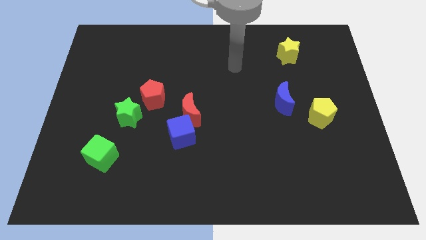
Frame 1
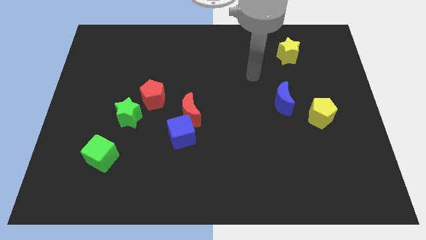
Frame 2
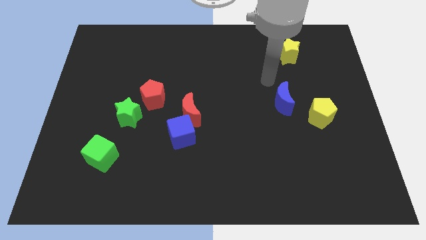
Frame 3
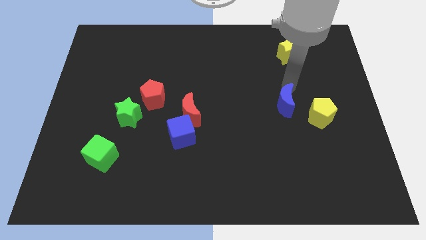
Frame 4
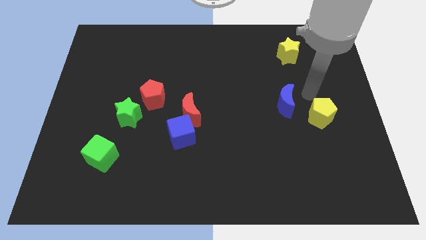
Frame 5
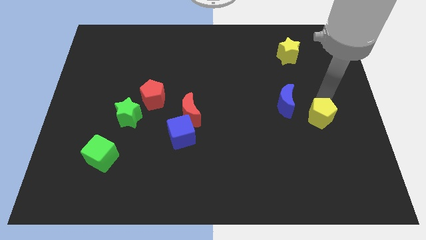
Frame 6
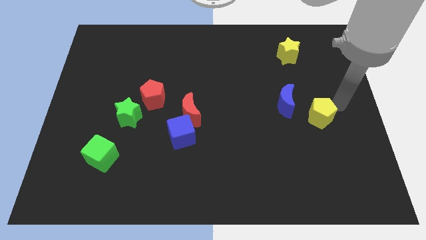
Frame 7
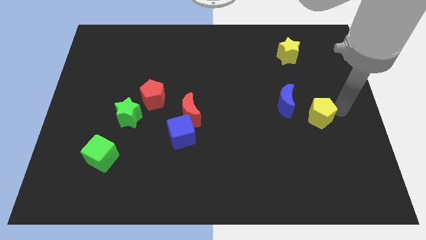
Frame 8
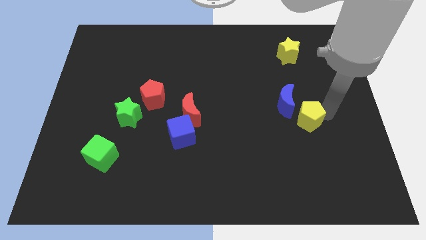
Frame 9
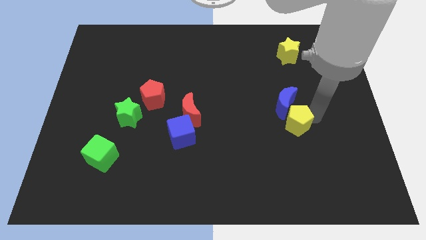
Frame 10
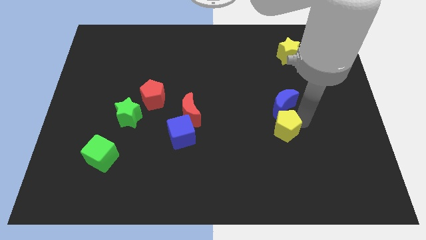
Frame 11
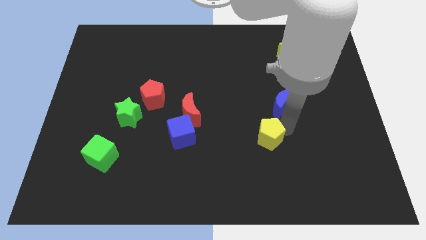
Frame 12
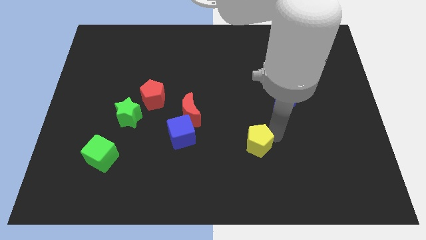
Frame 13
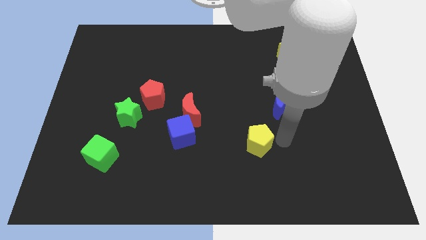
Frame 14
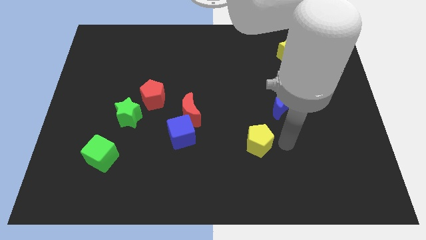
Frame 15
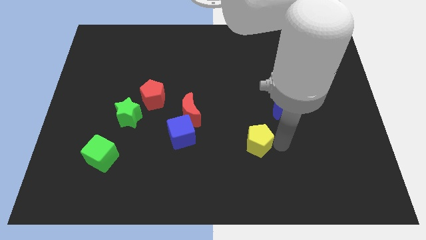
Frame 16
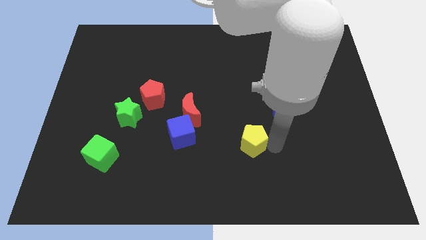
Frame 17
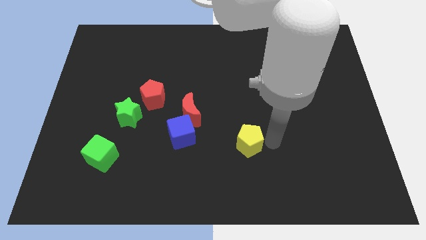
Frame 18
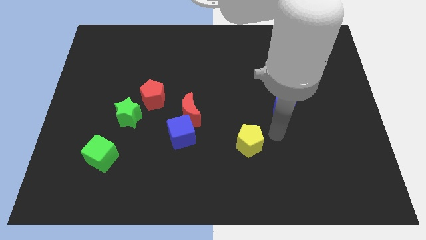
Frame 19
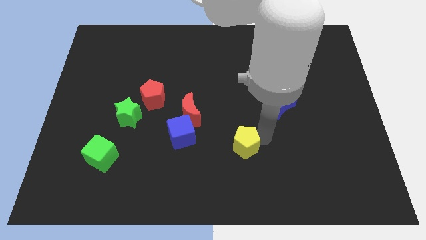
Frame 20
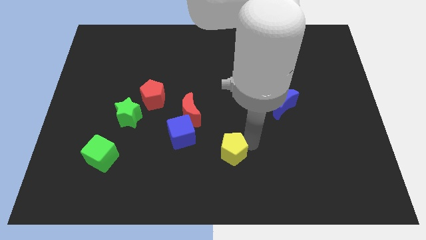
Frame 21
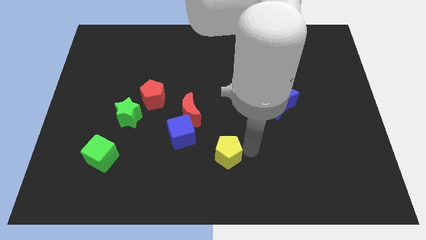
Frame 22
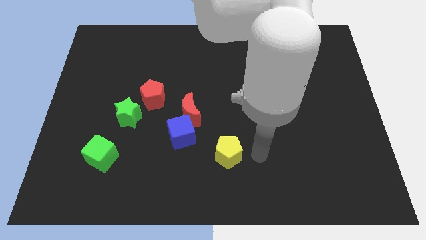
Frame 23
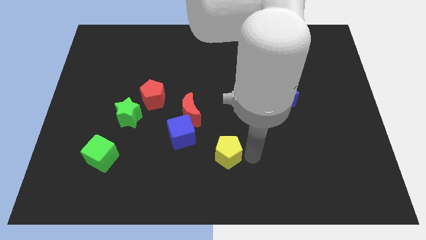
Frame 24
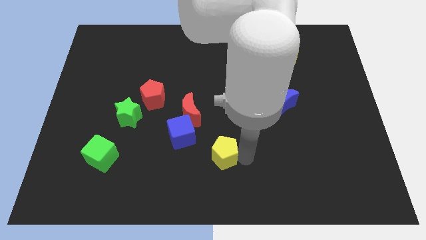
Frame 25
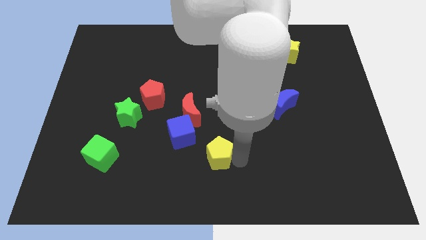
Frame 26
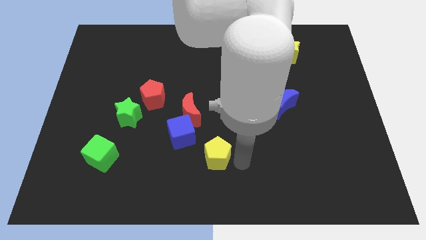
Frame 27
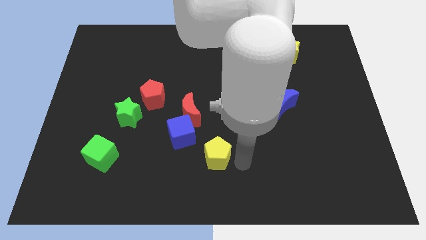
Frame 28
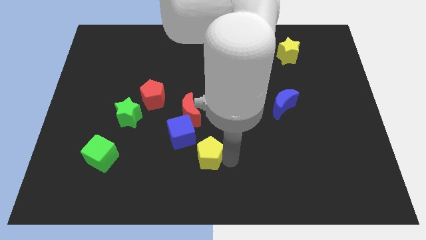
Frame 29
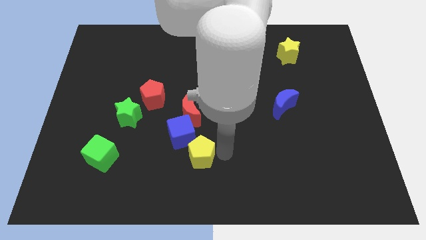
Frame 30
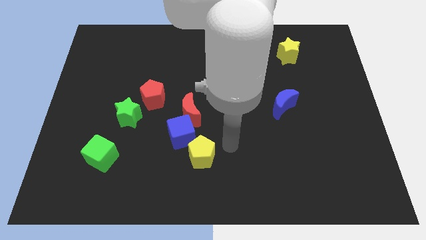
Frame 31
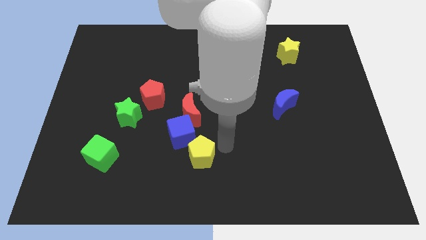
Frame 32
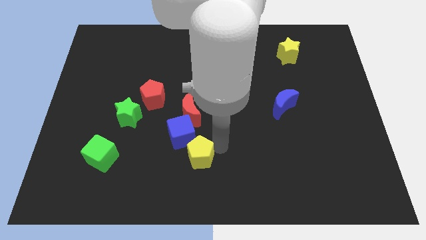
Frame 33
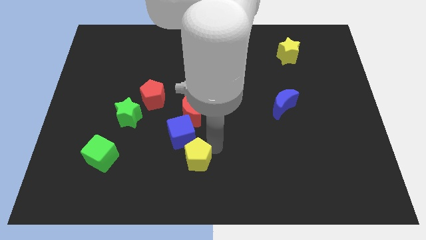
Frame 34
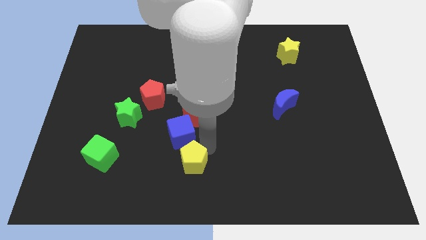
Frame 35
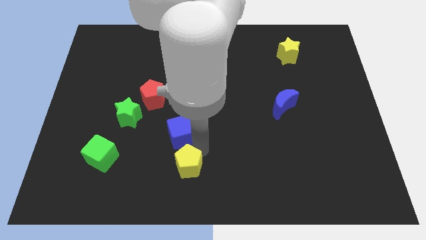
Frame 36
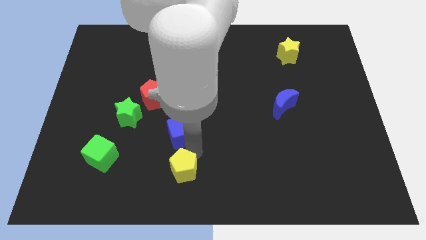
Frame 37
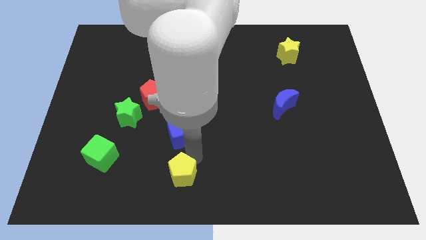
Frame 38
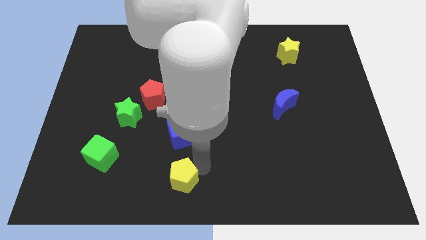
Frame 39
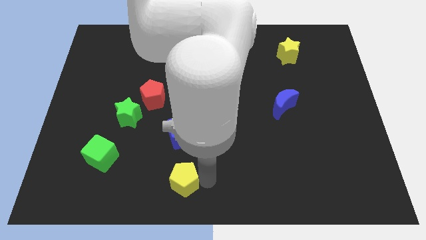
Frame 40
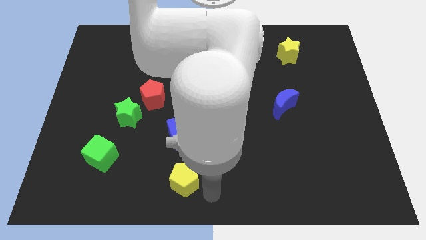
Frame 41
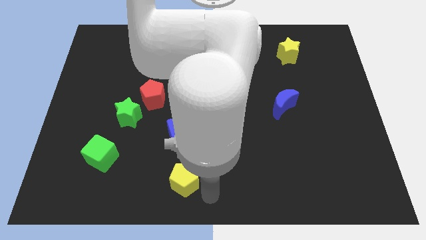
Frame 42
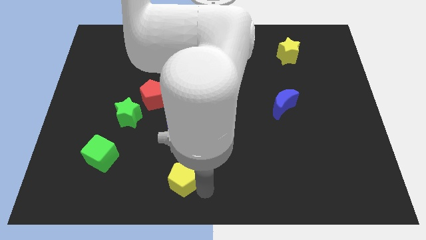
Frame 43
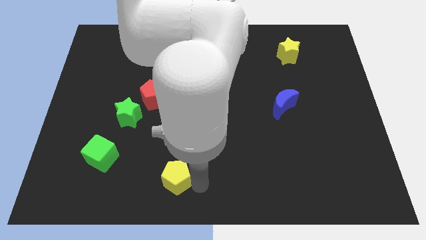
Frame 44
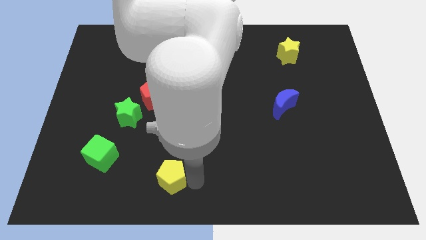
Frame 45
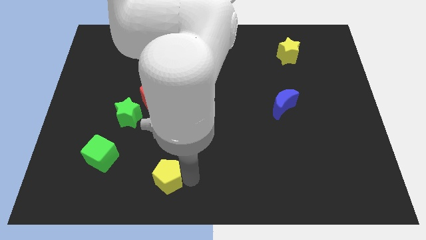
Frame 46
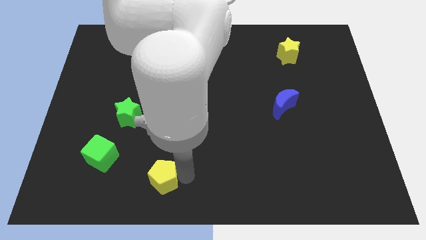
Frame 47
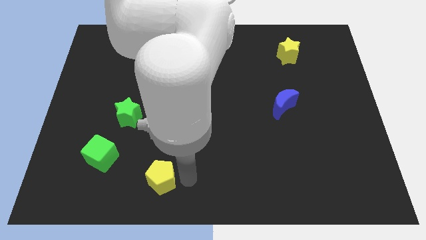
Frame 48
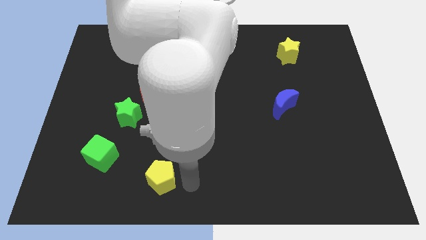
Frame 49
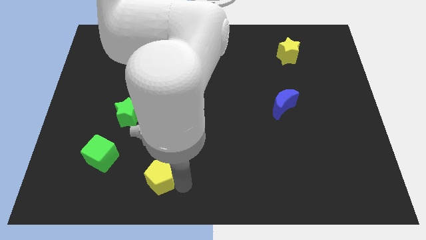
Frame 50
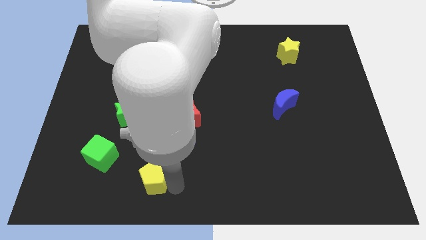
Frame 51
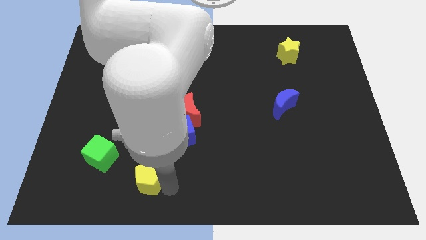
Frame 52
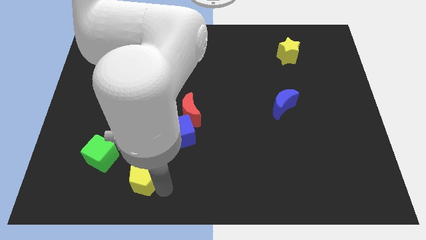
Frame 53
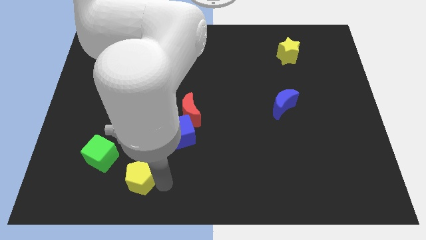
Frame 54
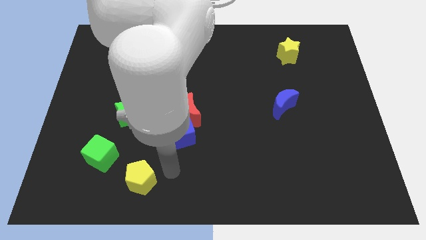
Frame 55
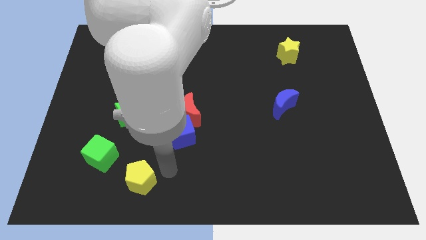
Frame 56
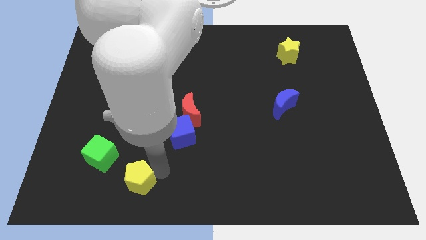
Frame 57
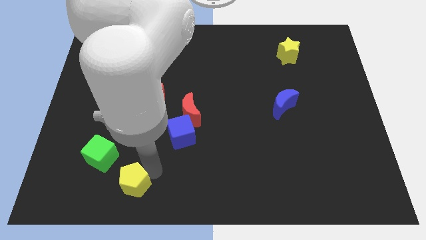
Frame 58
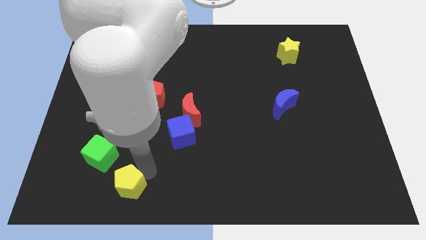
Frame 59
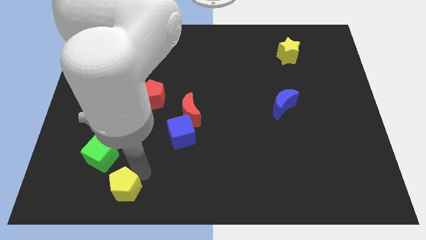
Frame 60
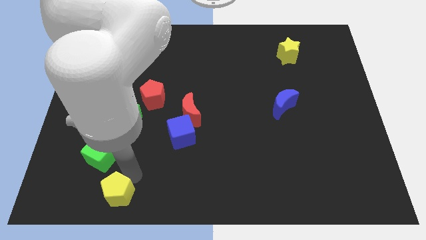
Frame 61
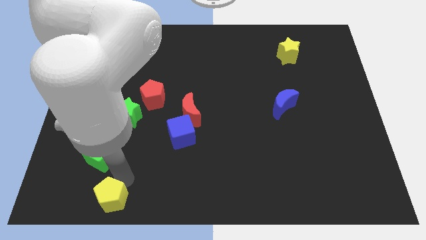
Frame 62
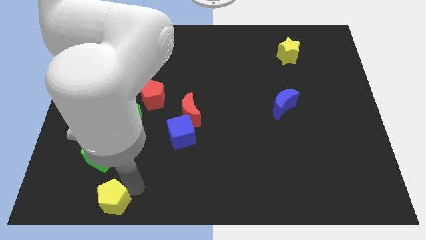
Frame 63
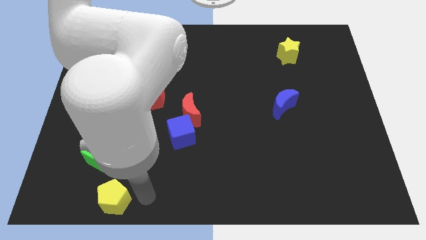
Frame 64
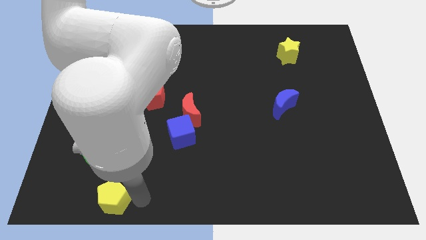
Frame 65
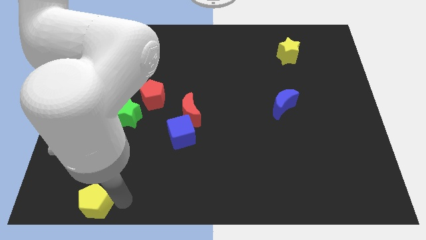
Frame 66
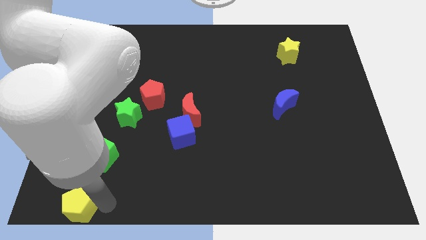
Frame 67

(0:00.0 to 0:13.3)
push the yellow pentagon to the bottom left
